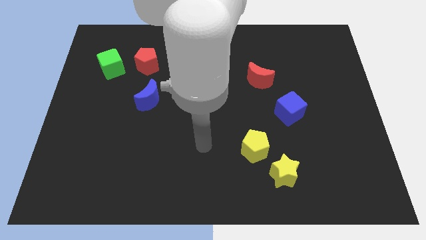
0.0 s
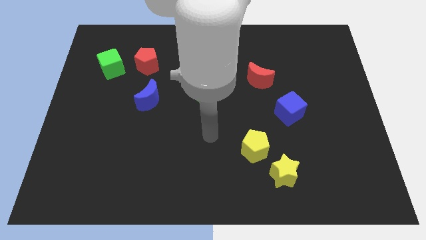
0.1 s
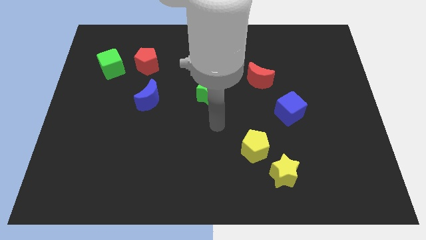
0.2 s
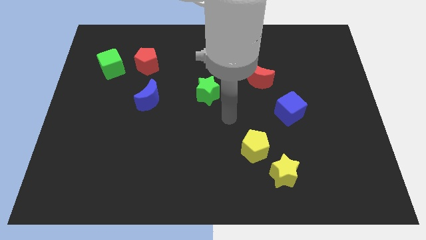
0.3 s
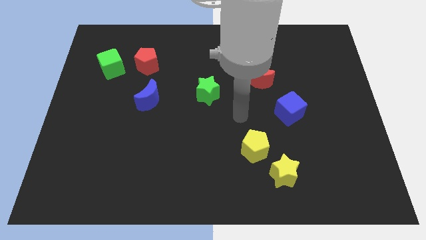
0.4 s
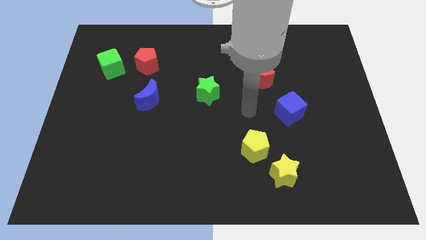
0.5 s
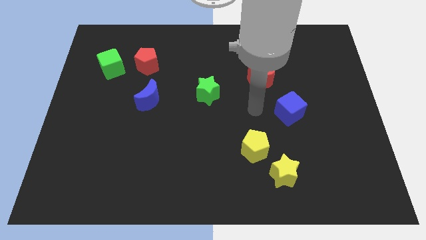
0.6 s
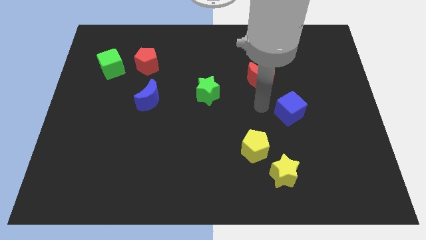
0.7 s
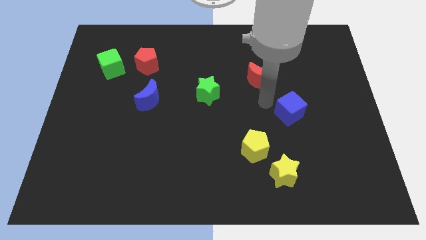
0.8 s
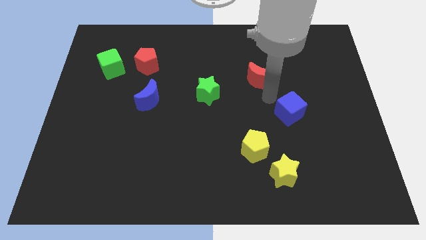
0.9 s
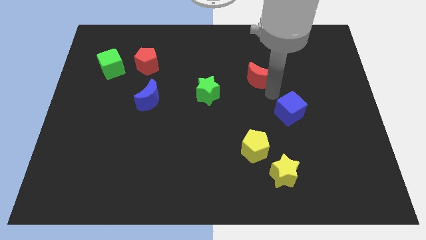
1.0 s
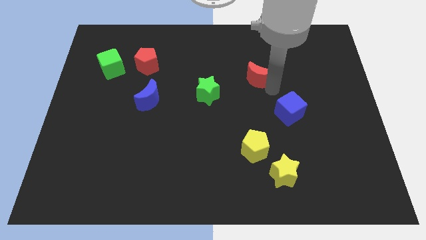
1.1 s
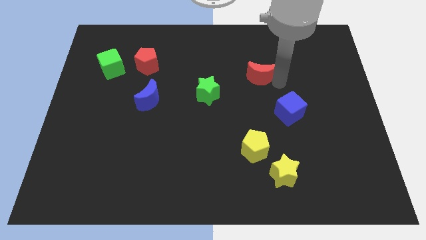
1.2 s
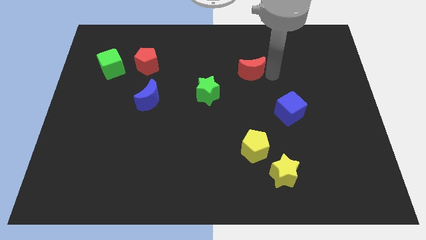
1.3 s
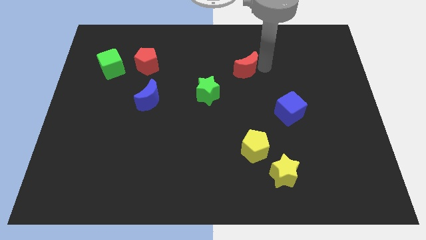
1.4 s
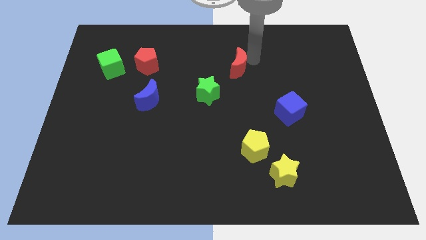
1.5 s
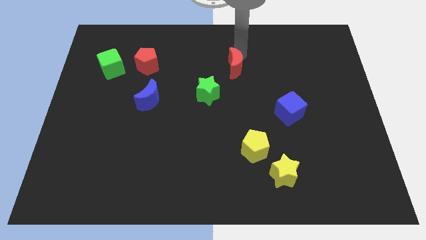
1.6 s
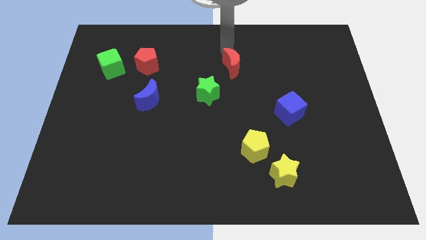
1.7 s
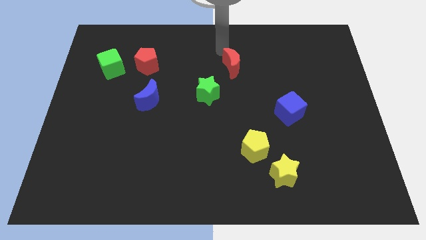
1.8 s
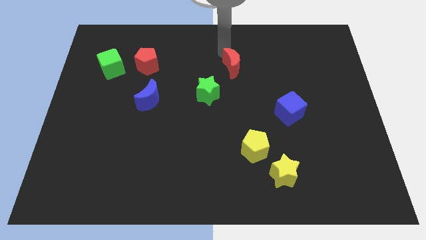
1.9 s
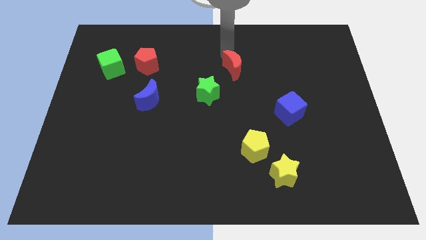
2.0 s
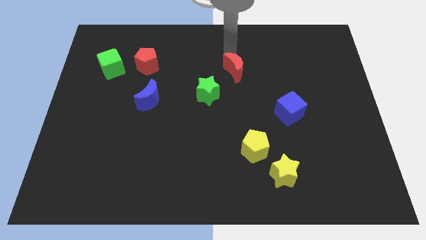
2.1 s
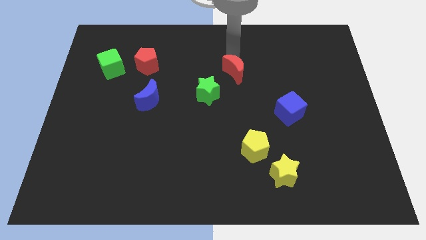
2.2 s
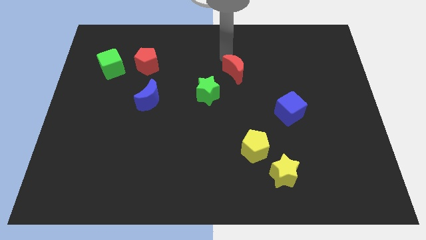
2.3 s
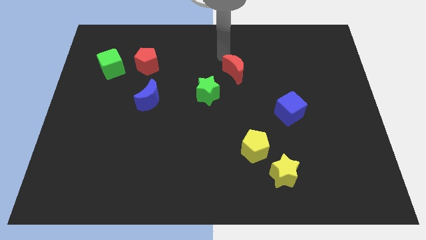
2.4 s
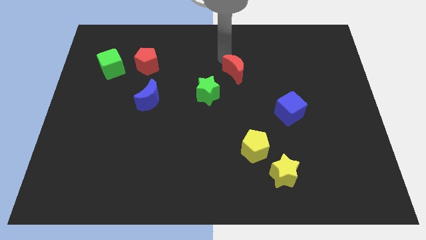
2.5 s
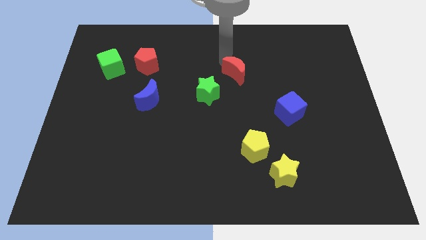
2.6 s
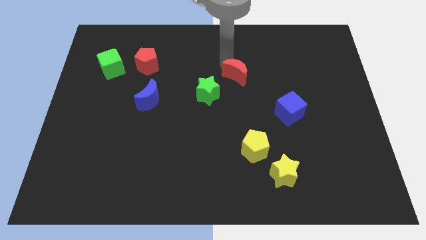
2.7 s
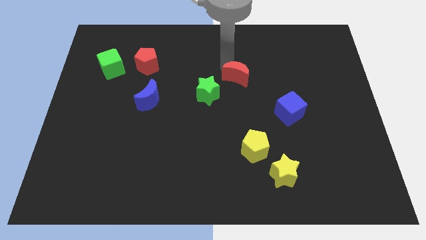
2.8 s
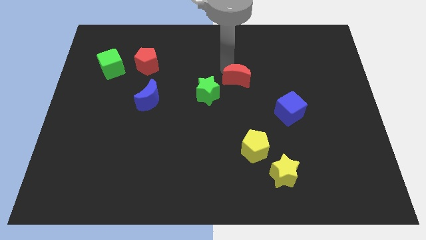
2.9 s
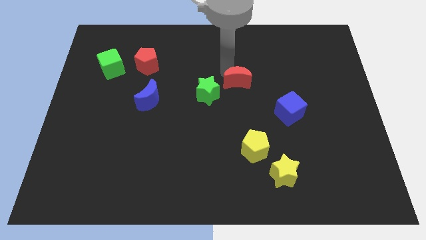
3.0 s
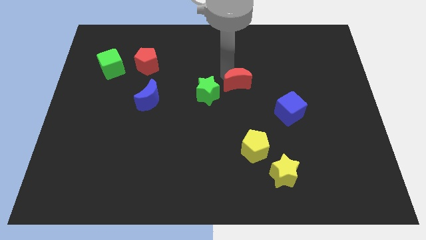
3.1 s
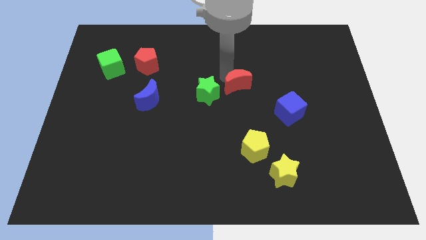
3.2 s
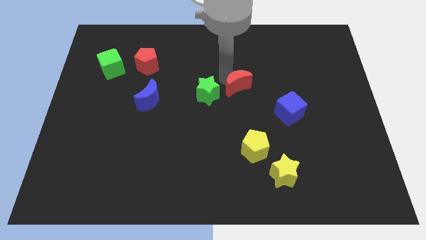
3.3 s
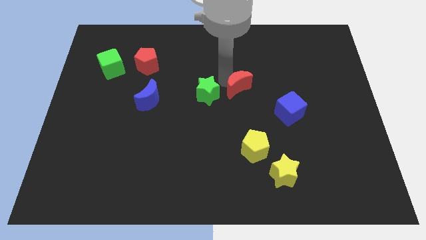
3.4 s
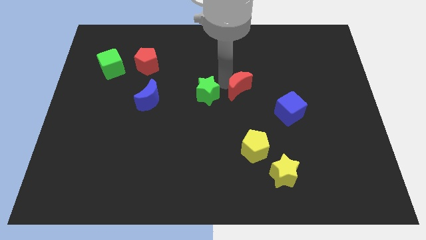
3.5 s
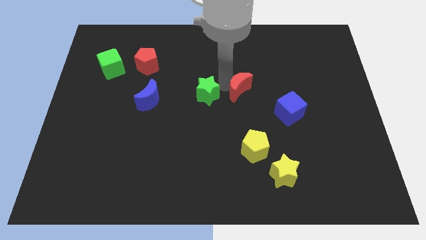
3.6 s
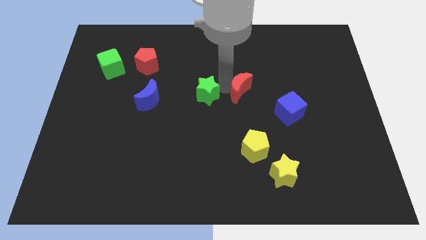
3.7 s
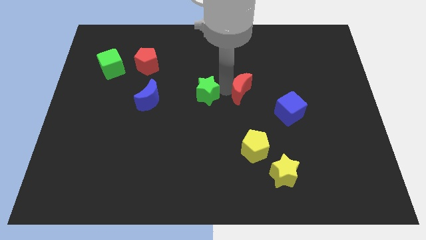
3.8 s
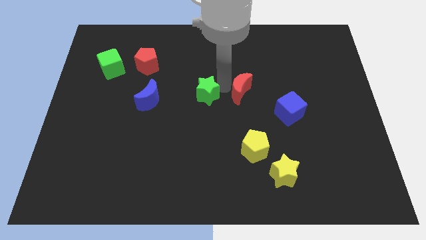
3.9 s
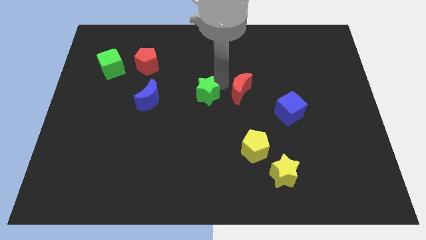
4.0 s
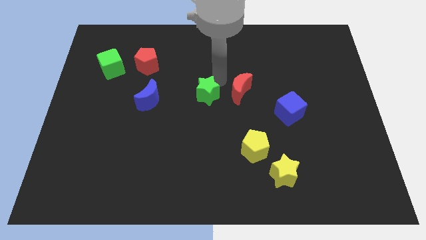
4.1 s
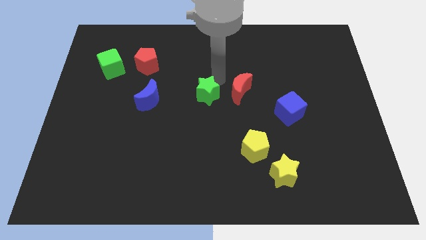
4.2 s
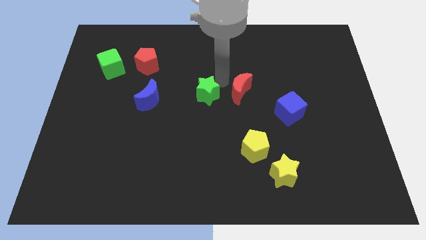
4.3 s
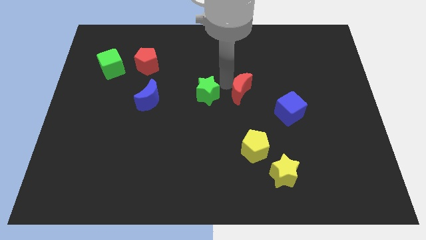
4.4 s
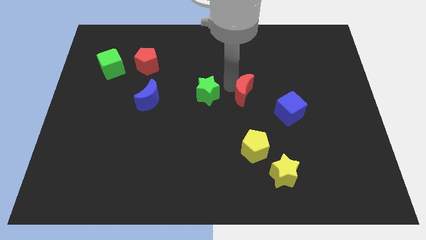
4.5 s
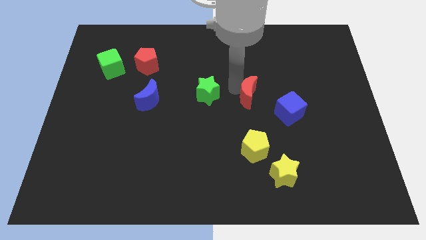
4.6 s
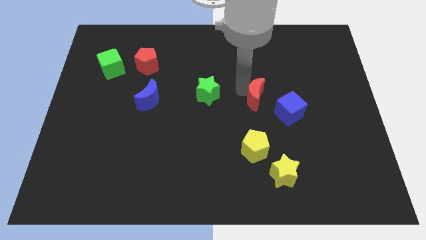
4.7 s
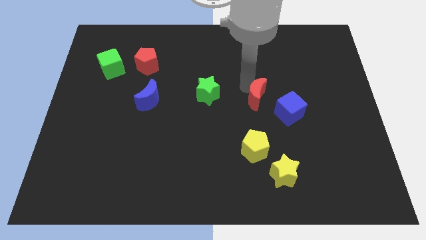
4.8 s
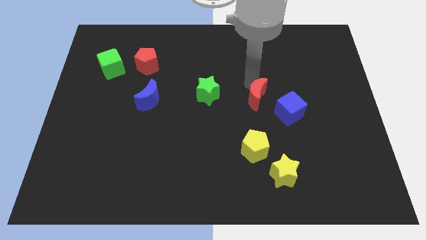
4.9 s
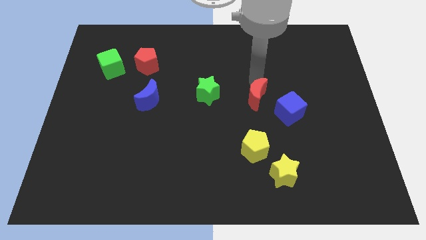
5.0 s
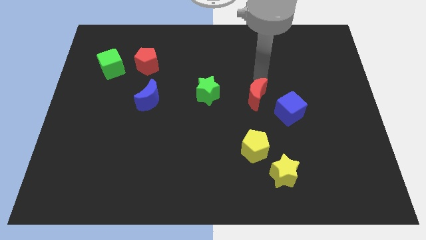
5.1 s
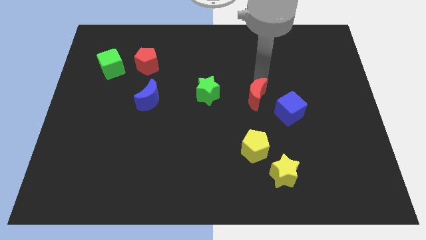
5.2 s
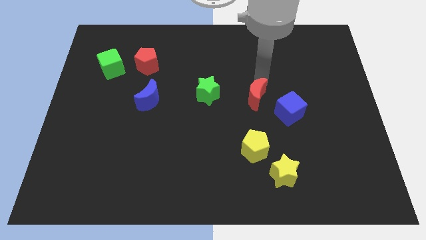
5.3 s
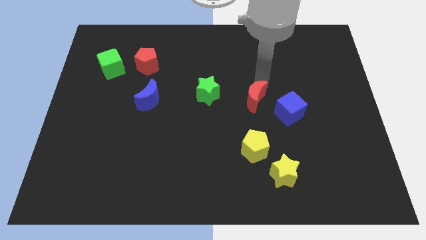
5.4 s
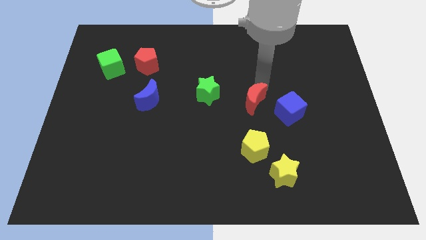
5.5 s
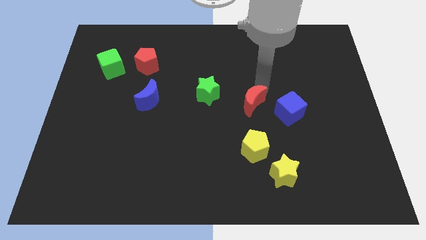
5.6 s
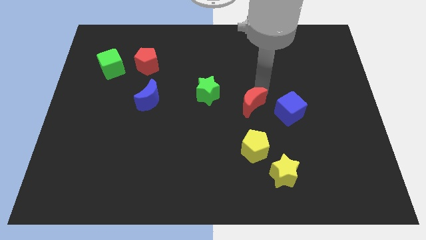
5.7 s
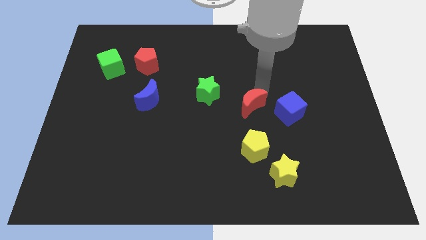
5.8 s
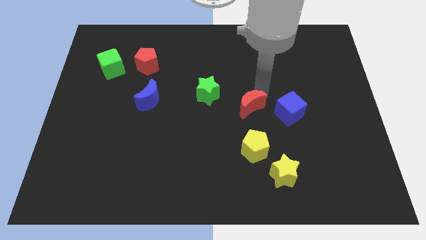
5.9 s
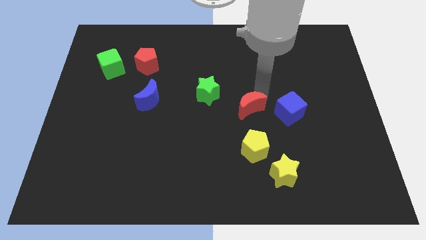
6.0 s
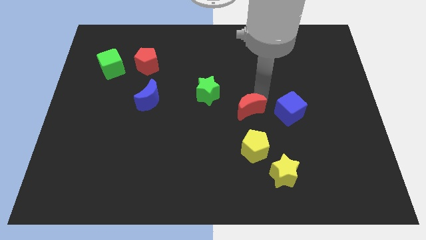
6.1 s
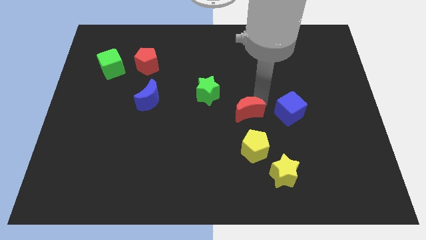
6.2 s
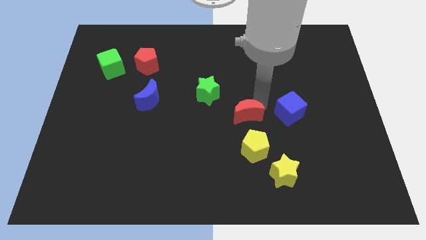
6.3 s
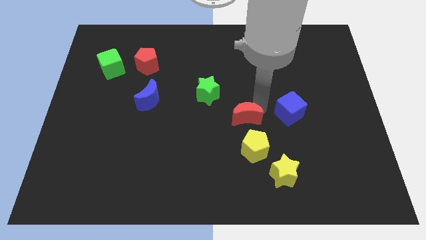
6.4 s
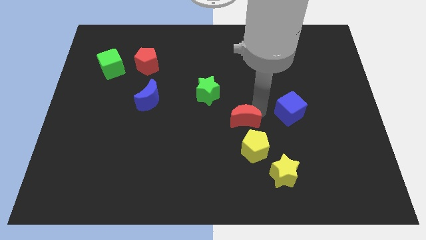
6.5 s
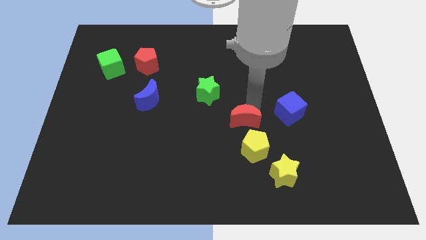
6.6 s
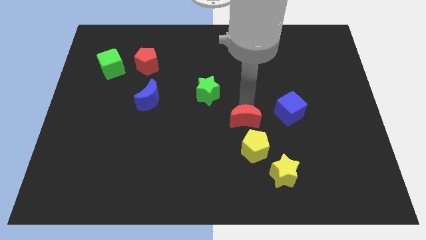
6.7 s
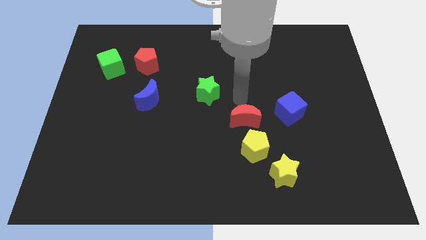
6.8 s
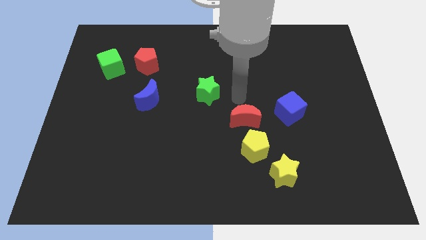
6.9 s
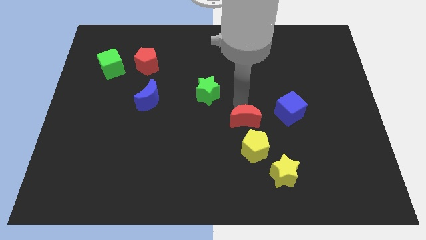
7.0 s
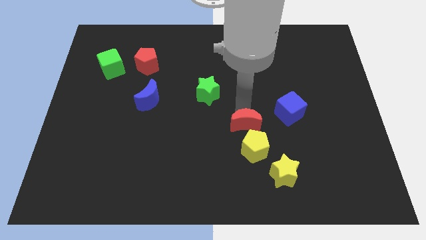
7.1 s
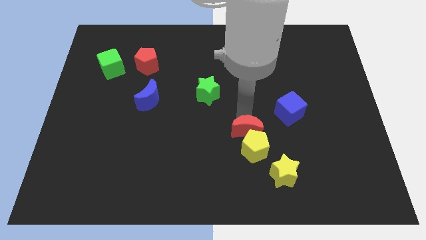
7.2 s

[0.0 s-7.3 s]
move the red moon towards the yellow pentagon
